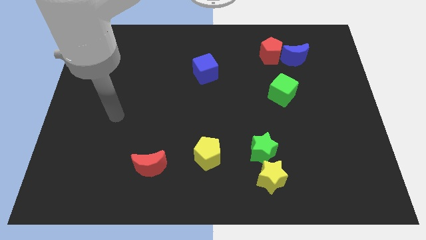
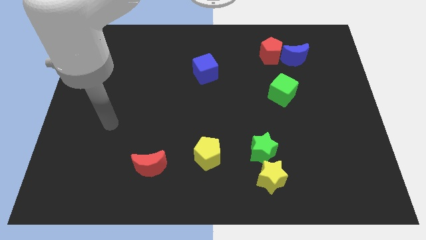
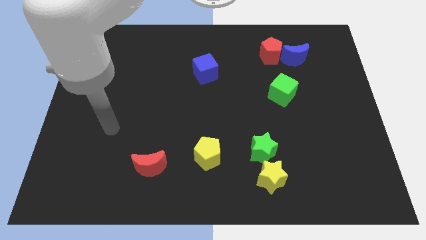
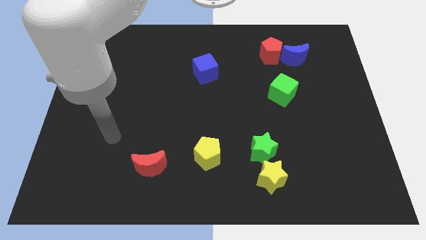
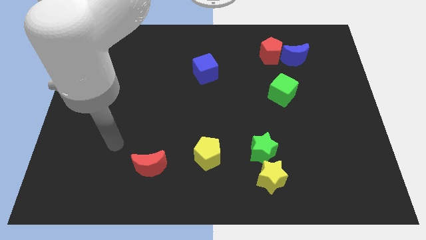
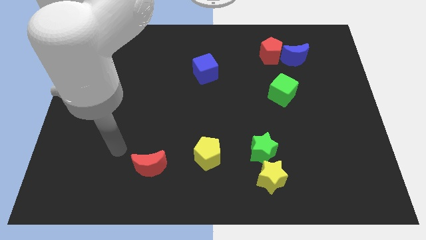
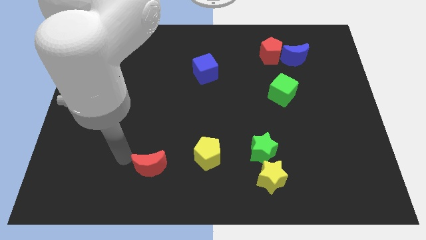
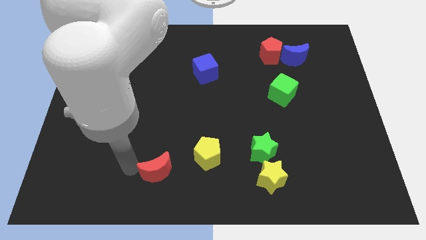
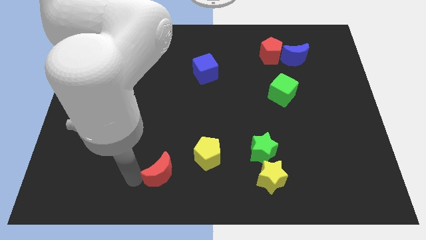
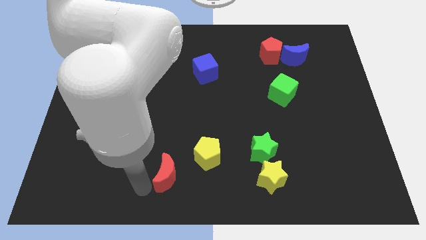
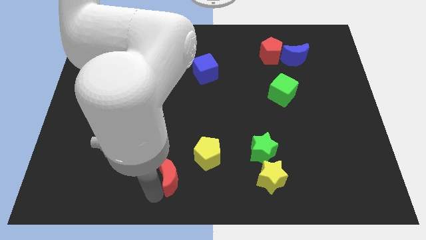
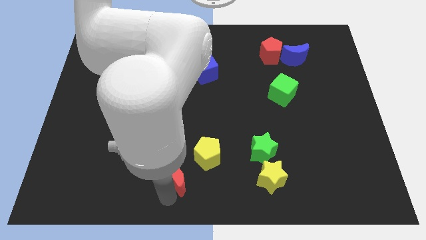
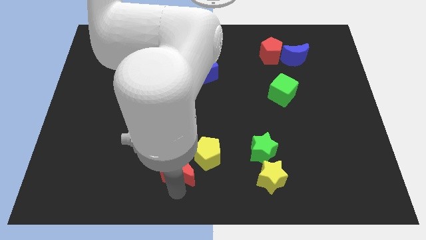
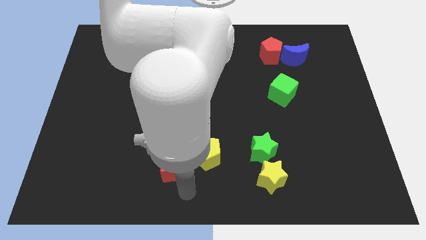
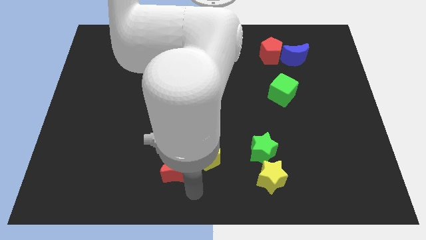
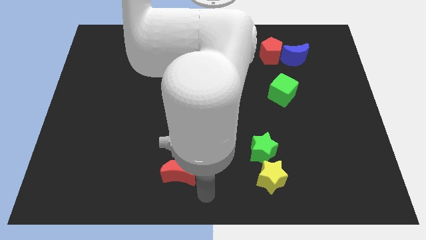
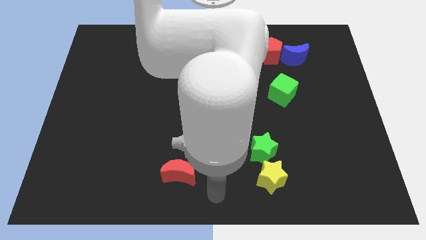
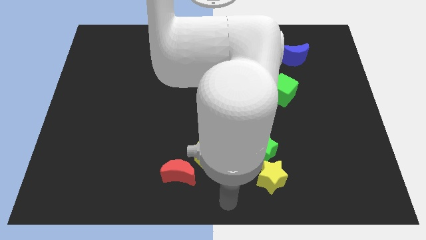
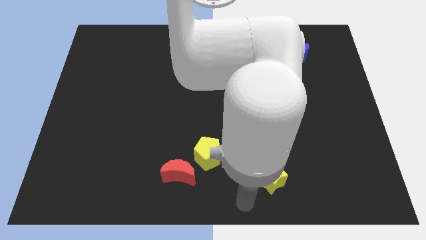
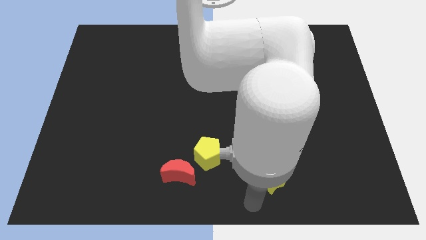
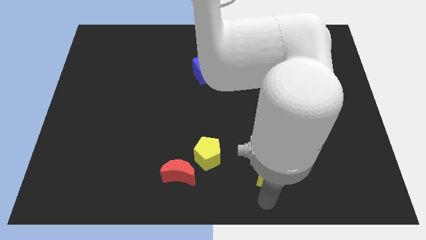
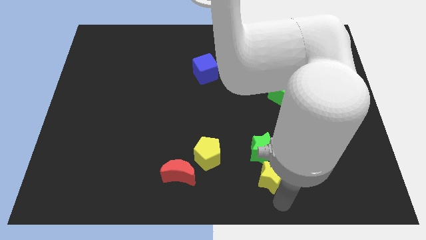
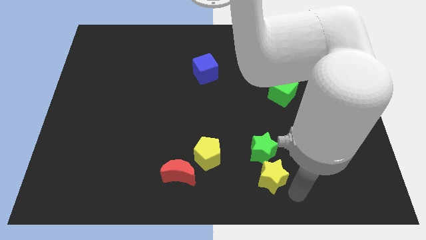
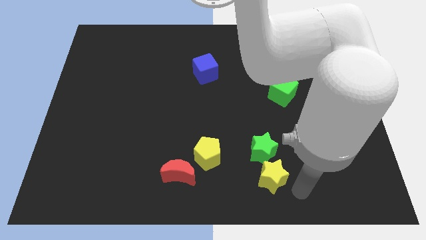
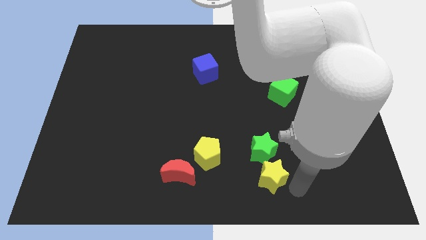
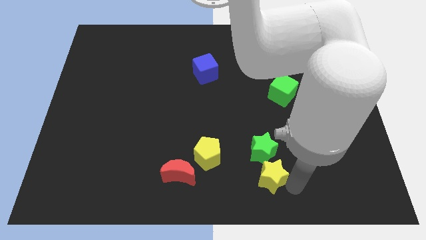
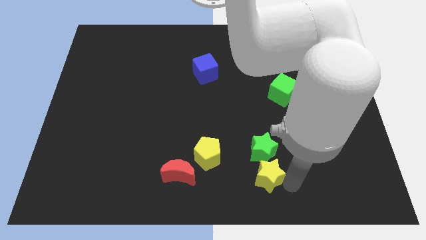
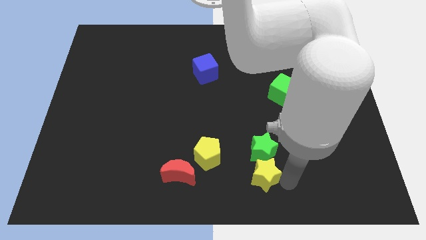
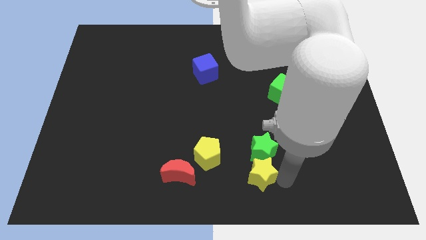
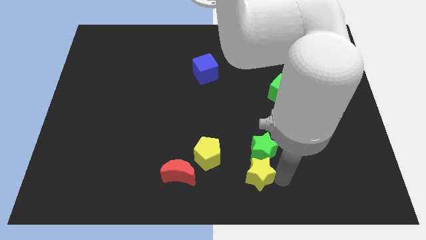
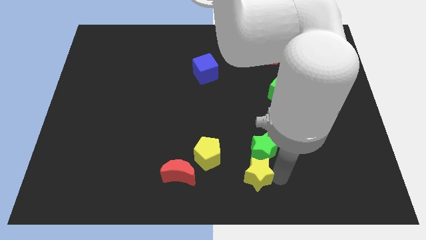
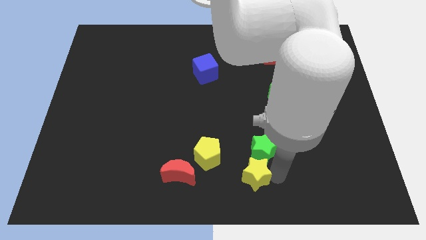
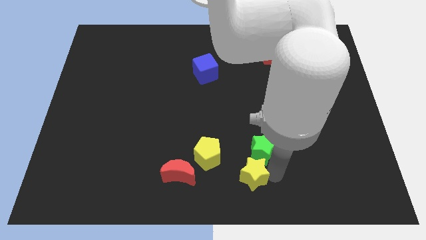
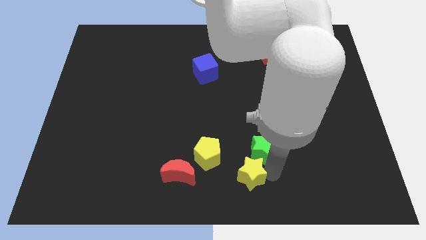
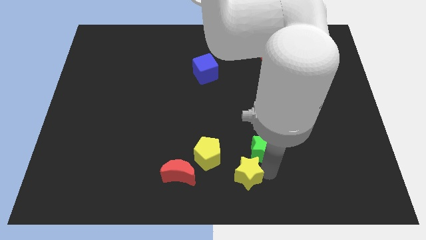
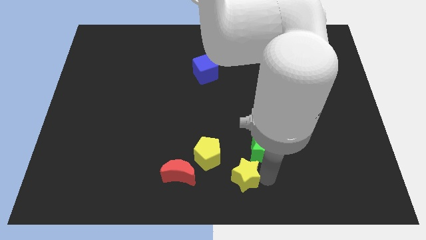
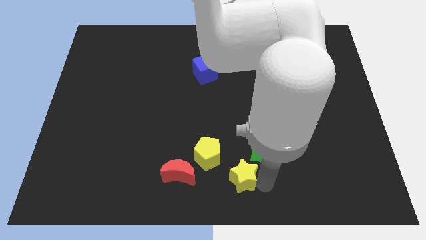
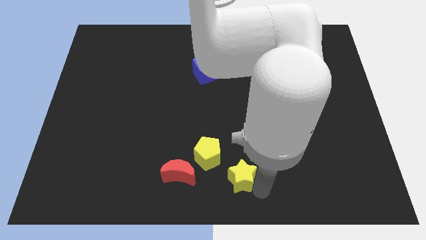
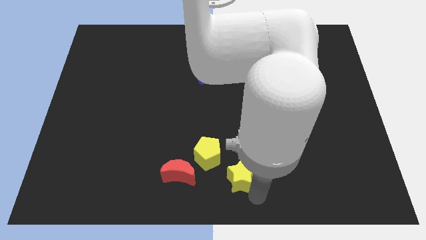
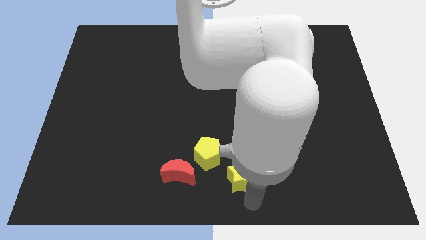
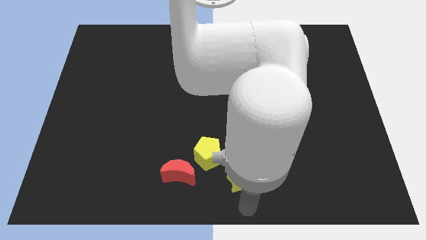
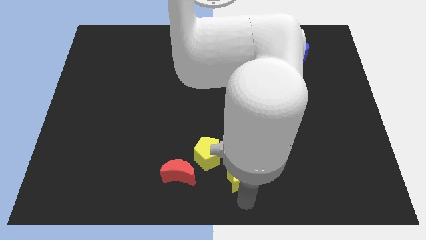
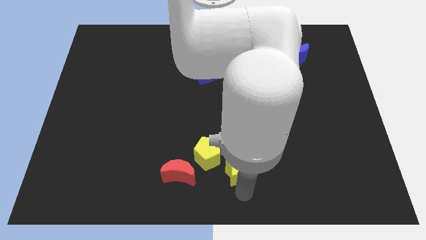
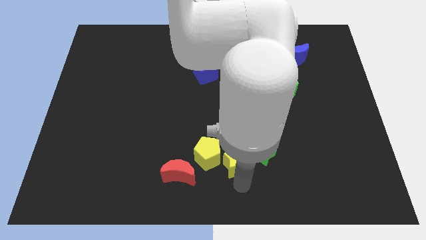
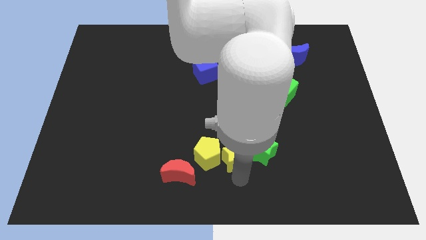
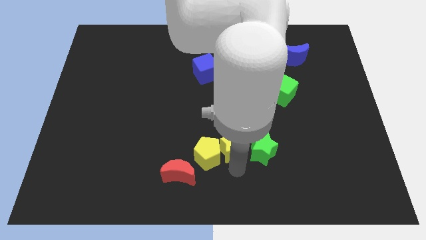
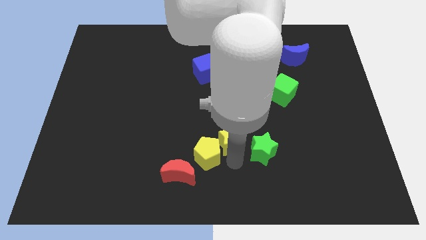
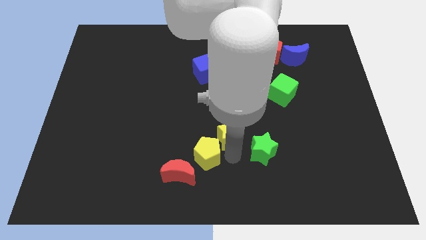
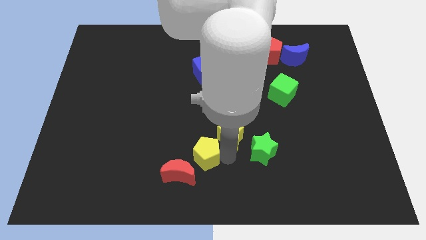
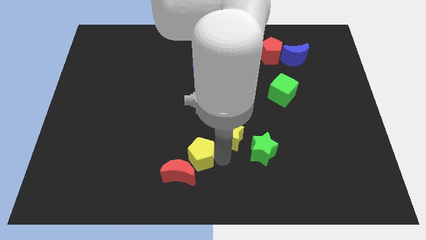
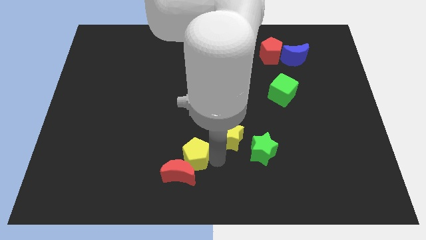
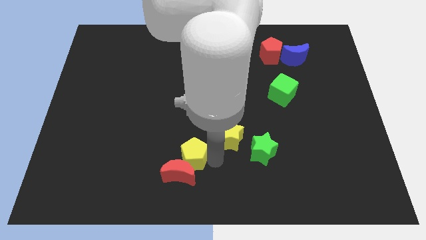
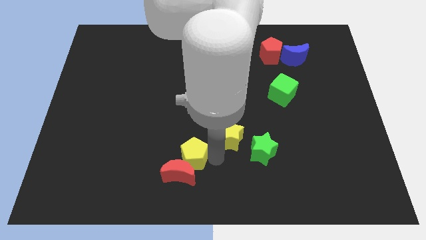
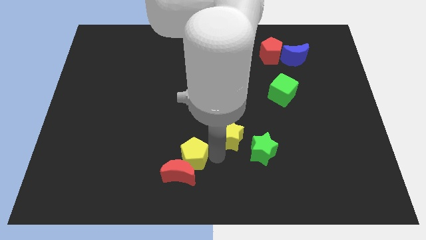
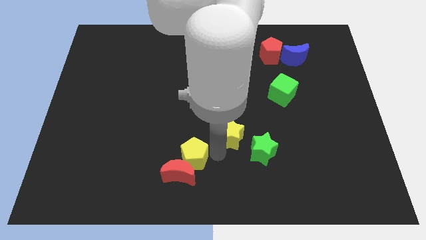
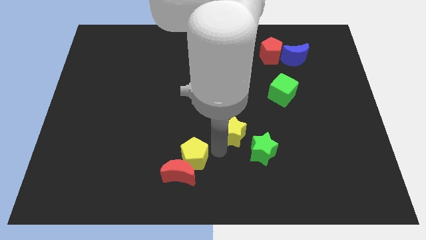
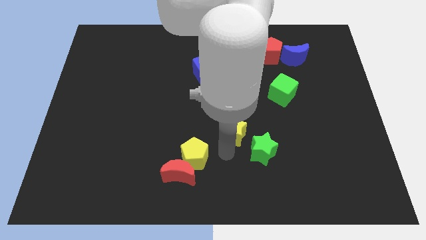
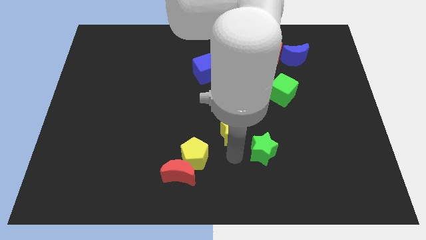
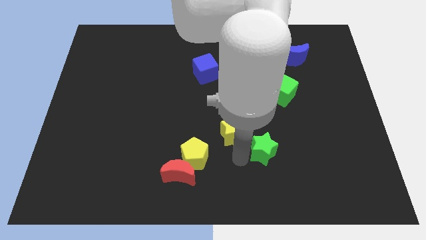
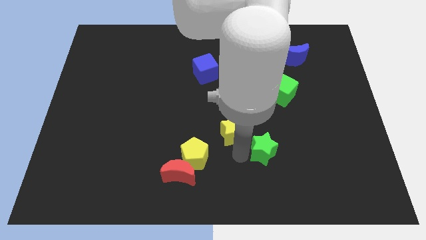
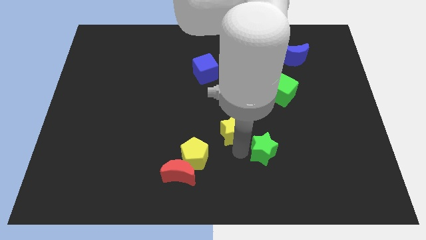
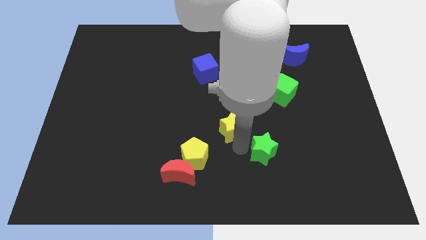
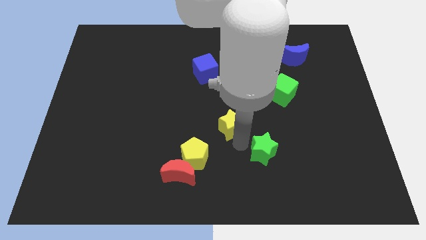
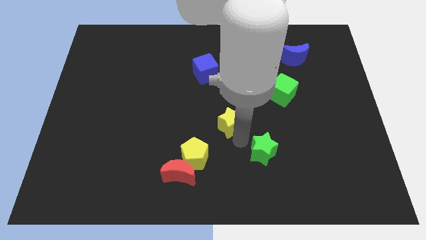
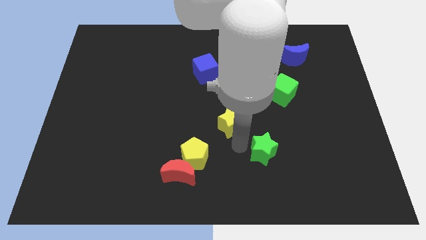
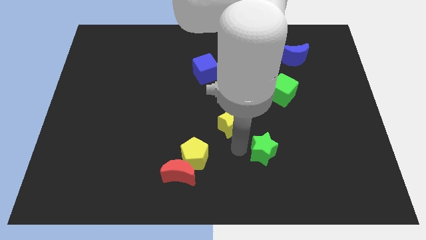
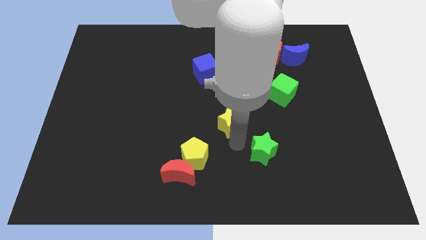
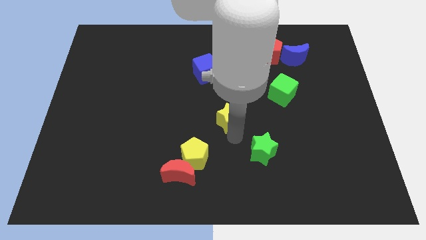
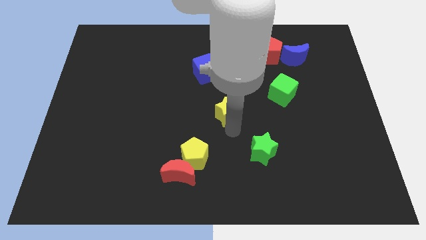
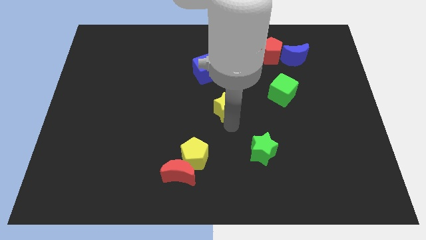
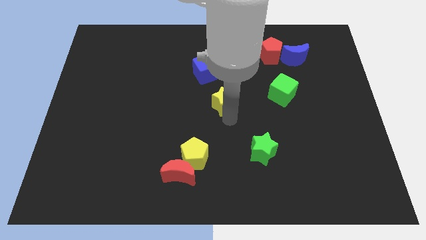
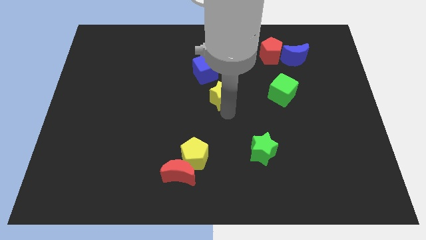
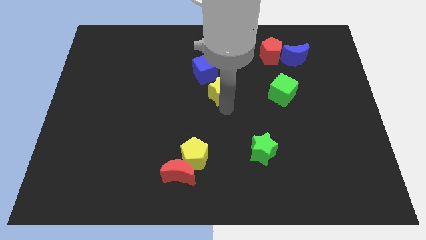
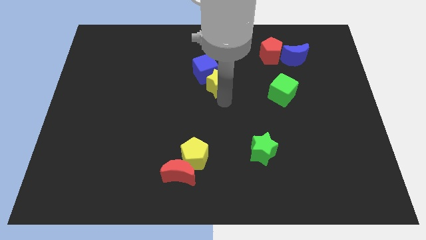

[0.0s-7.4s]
move the yellow star next to the blue cube
